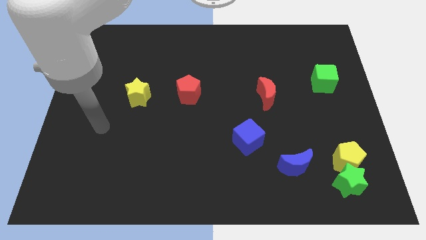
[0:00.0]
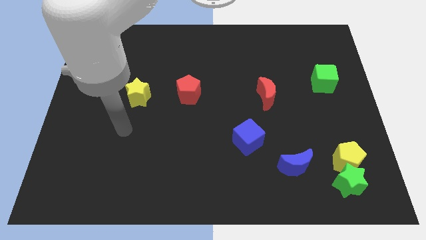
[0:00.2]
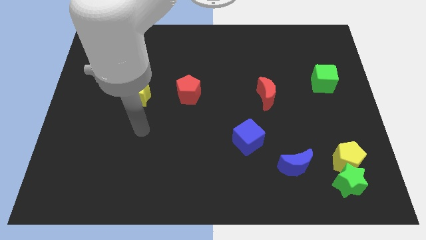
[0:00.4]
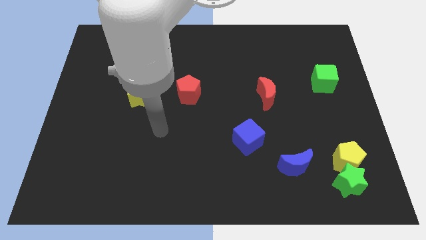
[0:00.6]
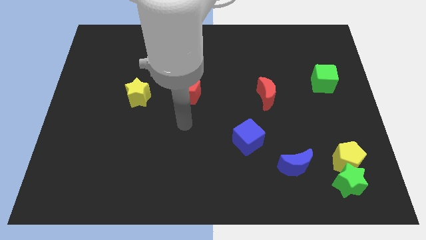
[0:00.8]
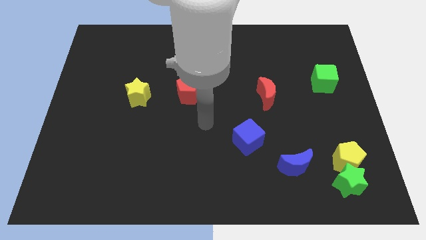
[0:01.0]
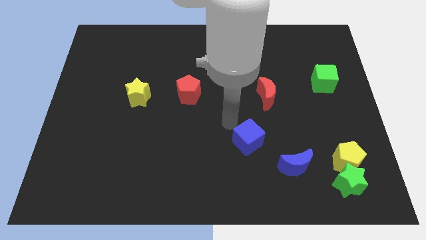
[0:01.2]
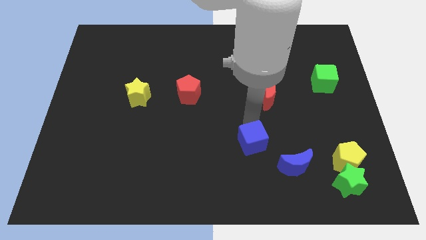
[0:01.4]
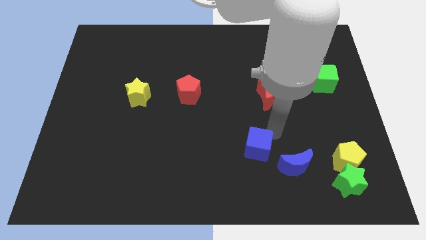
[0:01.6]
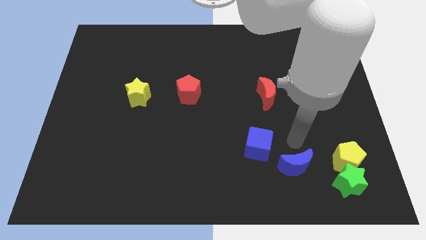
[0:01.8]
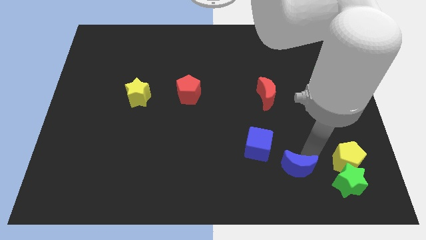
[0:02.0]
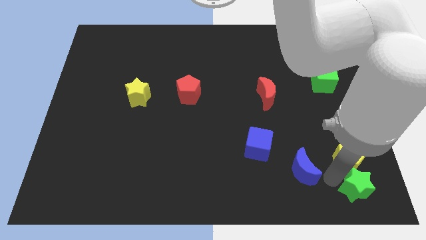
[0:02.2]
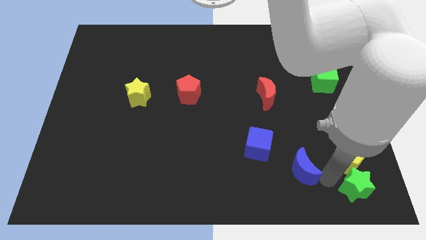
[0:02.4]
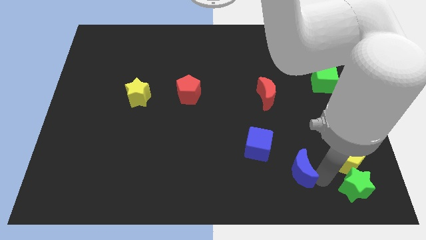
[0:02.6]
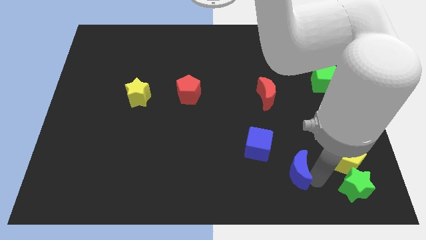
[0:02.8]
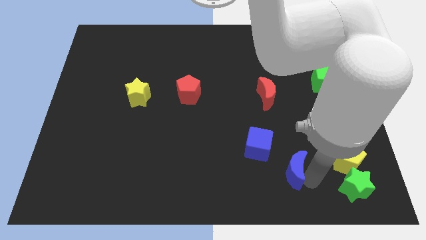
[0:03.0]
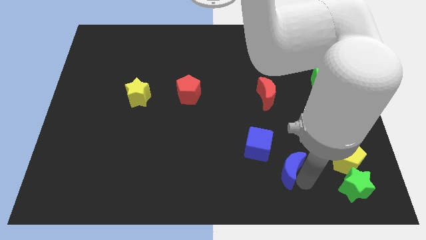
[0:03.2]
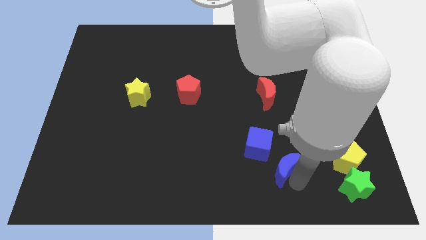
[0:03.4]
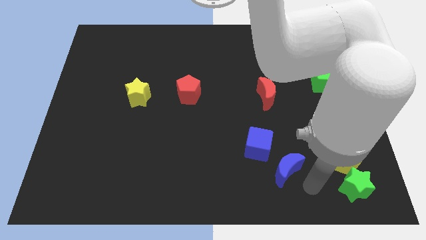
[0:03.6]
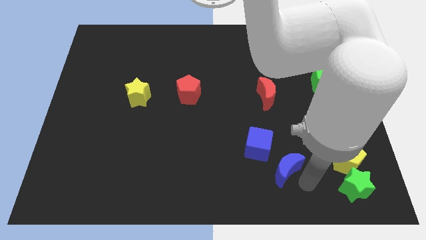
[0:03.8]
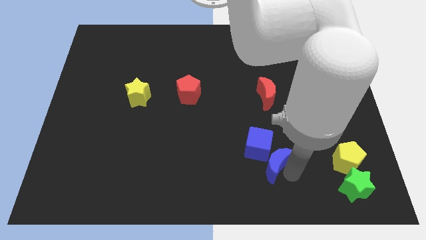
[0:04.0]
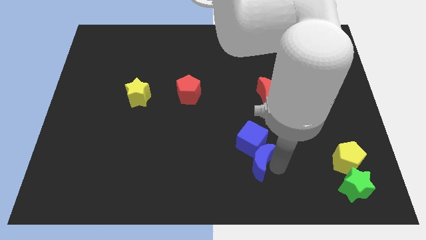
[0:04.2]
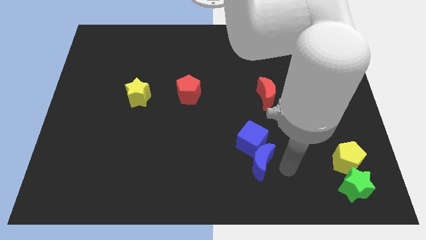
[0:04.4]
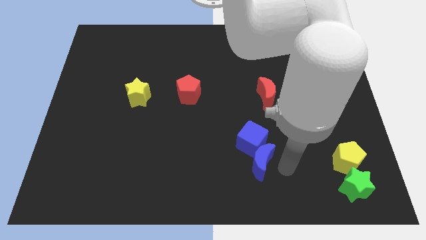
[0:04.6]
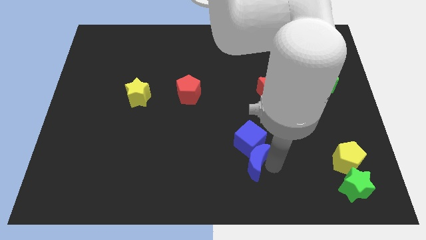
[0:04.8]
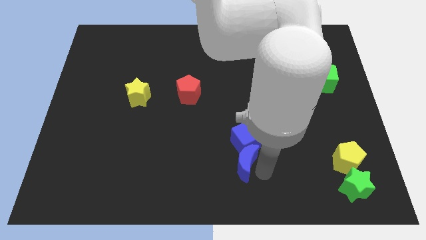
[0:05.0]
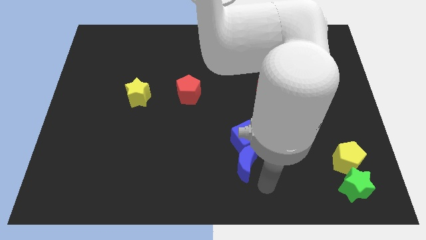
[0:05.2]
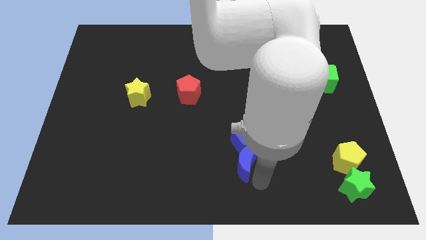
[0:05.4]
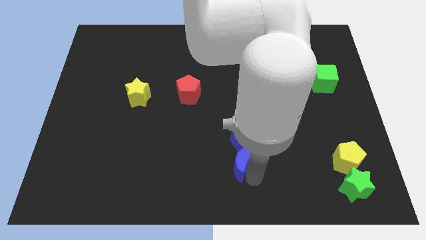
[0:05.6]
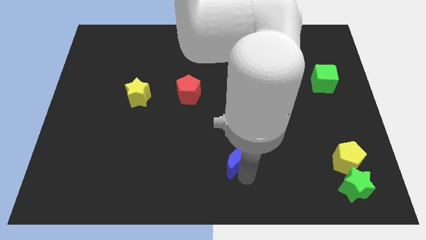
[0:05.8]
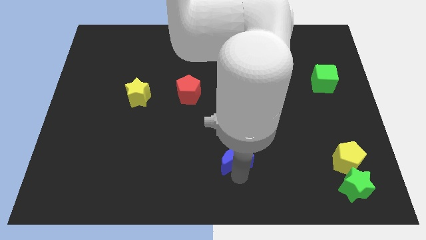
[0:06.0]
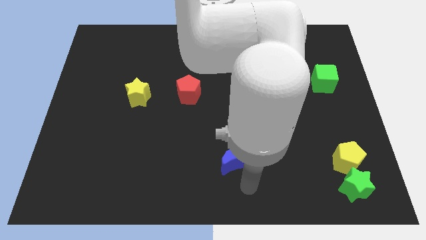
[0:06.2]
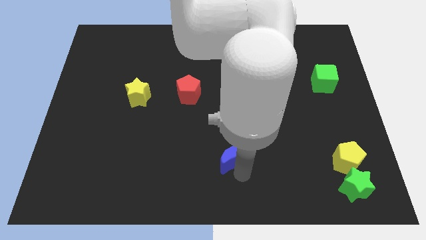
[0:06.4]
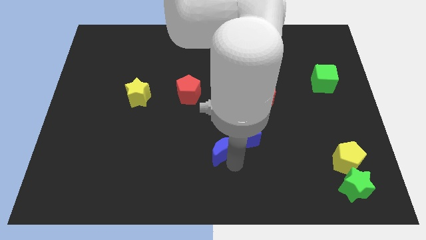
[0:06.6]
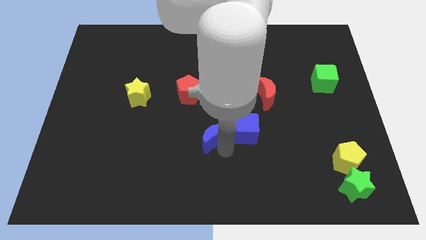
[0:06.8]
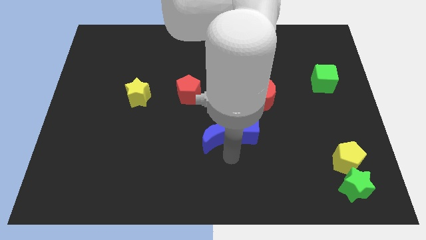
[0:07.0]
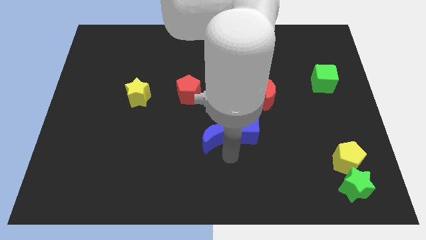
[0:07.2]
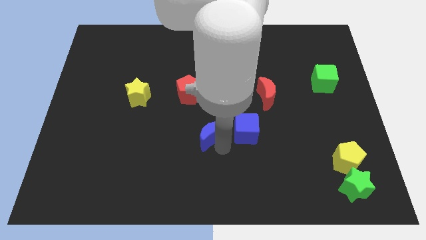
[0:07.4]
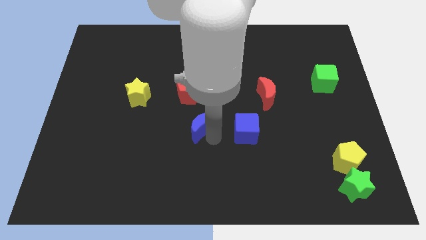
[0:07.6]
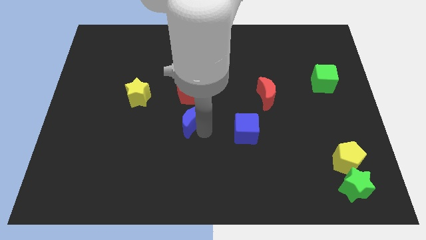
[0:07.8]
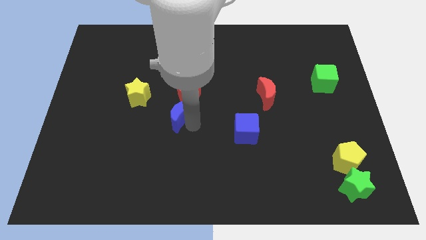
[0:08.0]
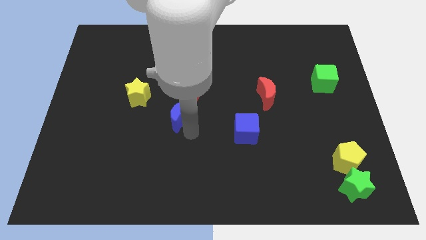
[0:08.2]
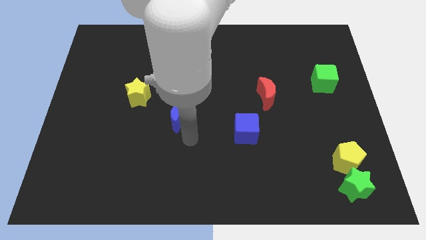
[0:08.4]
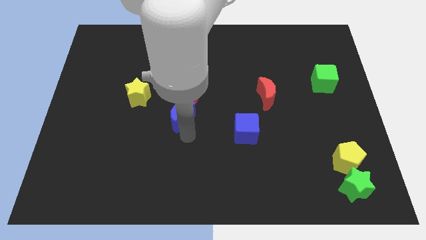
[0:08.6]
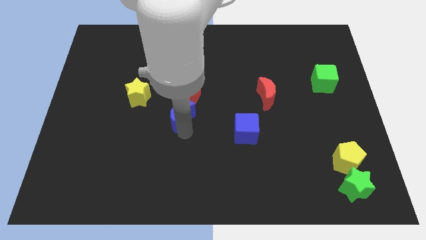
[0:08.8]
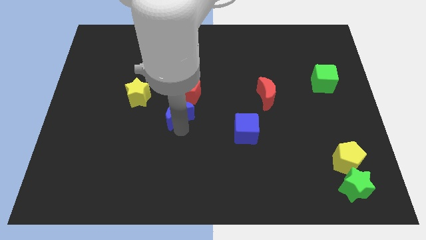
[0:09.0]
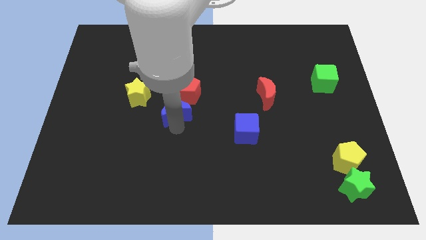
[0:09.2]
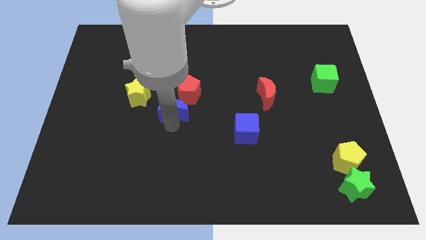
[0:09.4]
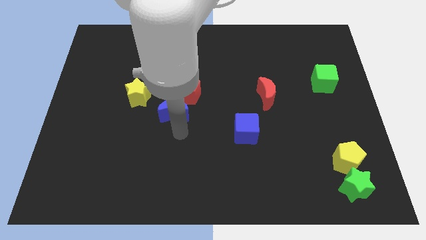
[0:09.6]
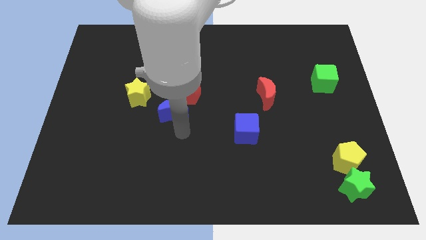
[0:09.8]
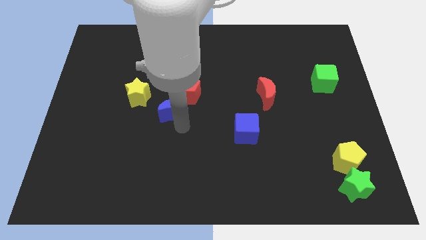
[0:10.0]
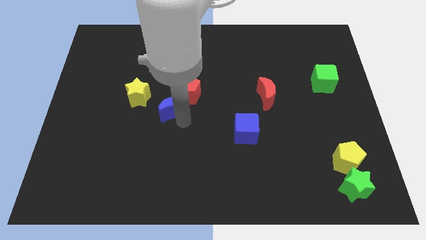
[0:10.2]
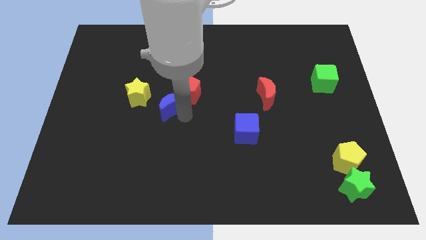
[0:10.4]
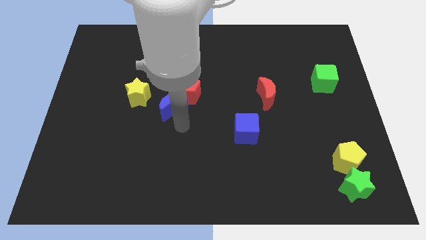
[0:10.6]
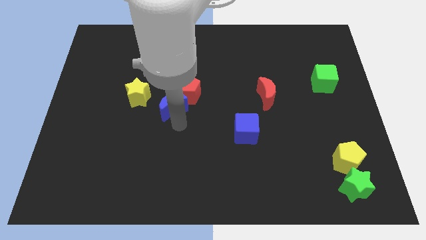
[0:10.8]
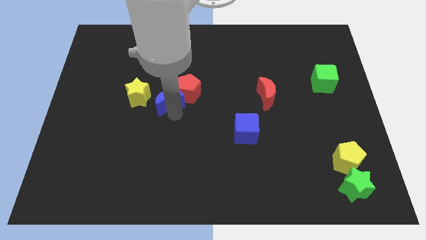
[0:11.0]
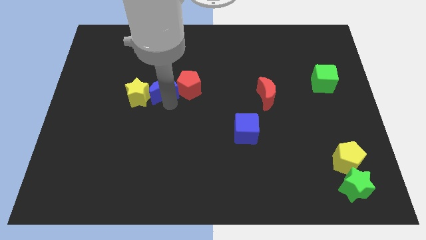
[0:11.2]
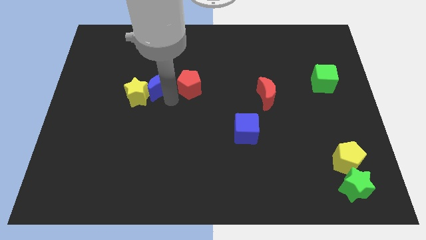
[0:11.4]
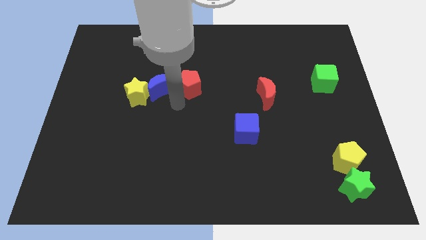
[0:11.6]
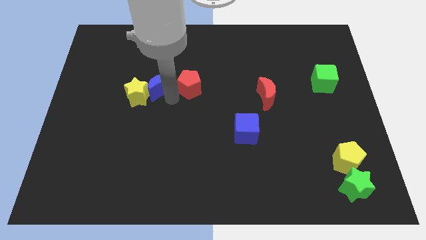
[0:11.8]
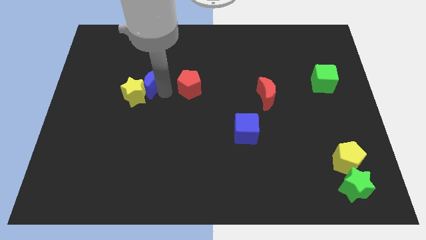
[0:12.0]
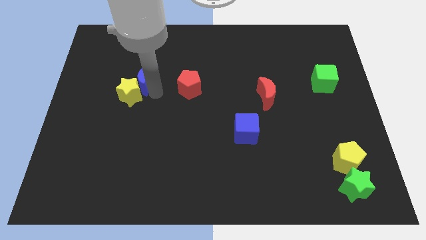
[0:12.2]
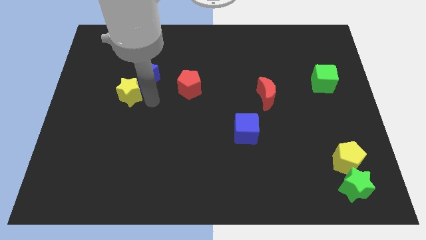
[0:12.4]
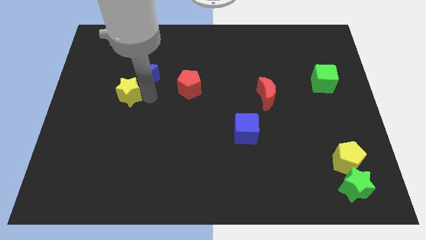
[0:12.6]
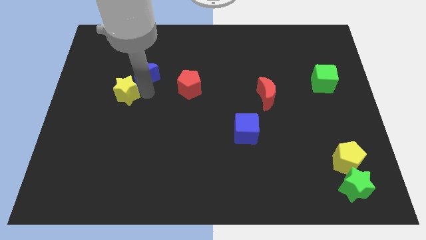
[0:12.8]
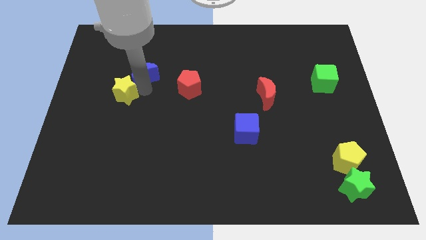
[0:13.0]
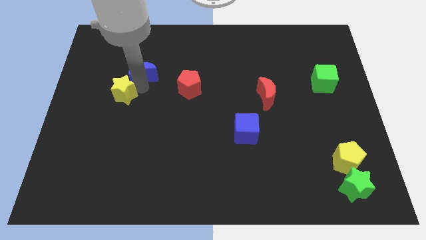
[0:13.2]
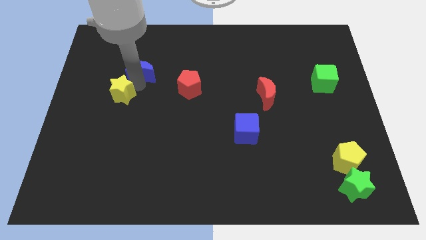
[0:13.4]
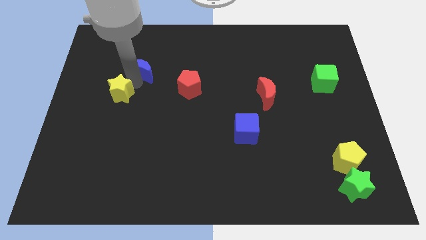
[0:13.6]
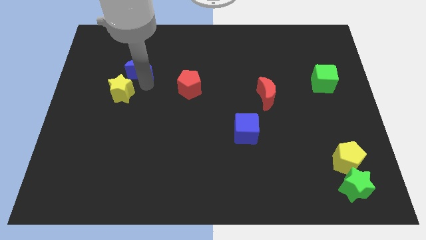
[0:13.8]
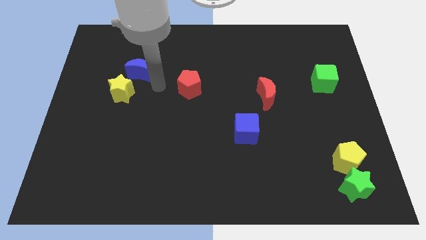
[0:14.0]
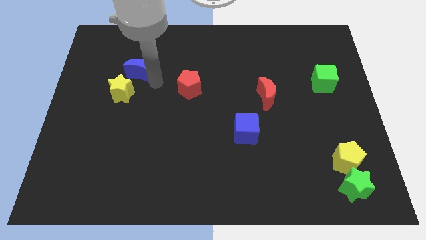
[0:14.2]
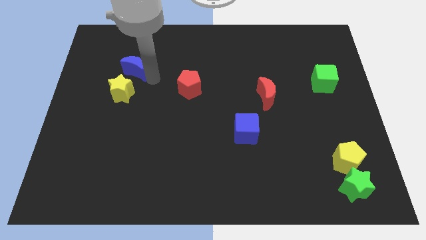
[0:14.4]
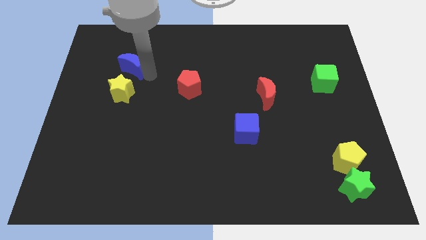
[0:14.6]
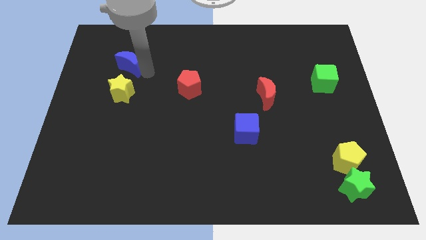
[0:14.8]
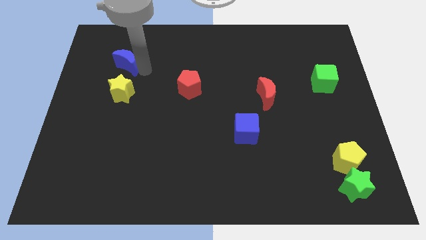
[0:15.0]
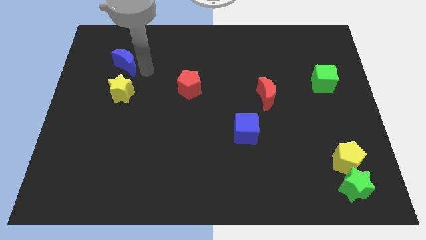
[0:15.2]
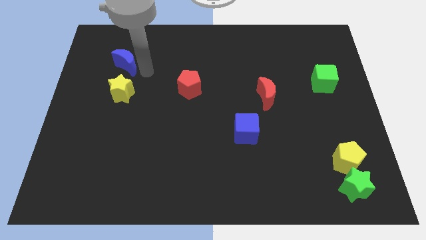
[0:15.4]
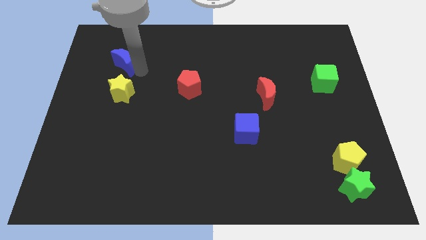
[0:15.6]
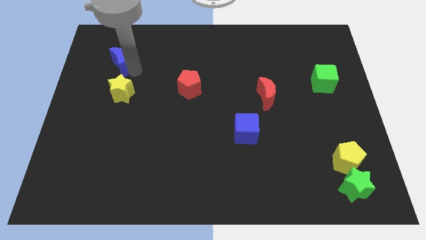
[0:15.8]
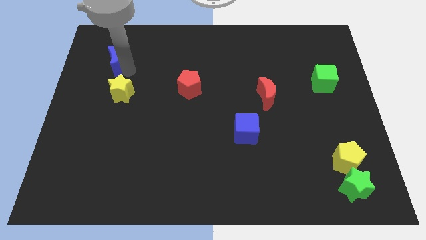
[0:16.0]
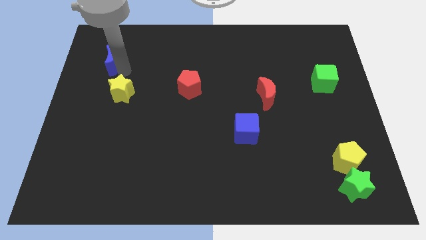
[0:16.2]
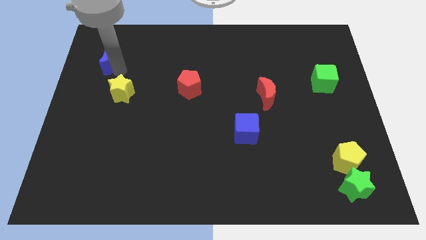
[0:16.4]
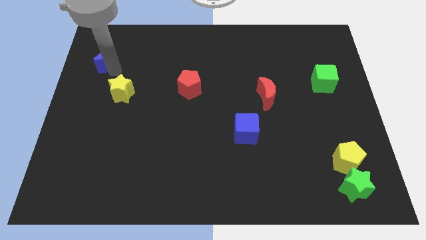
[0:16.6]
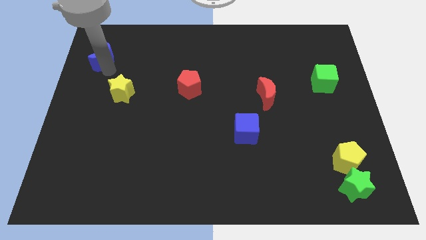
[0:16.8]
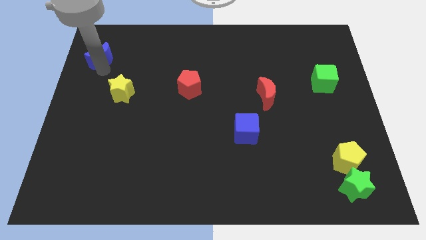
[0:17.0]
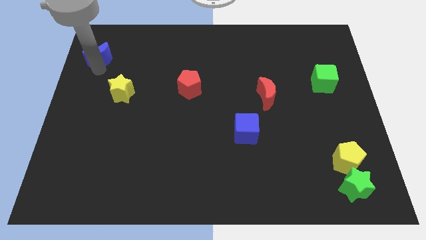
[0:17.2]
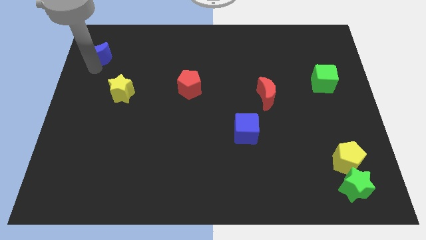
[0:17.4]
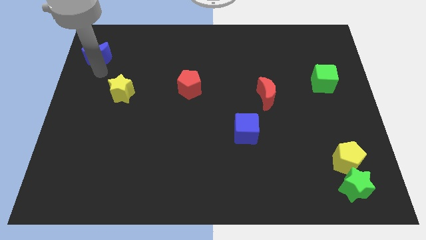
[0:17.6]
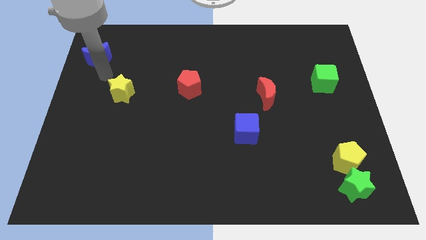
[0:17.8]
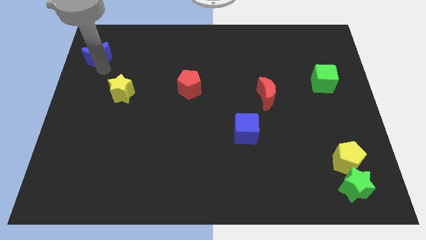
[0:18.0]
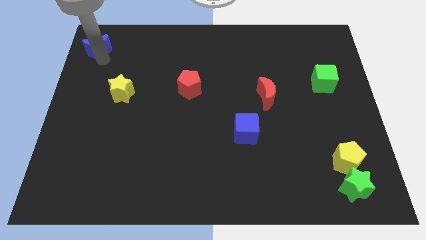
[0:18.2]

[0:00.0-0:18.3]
move the blue moon to the top left of the board
